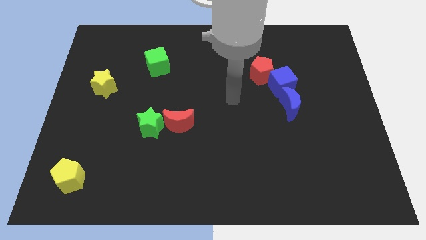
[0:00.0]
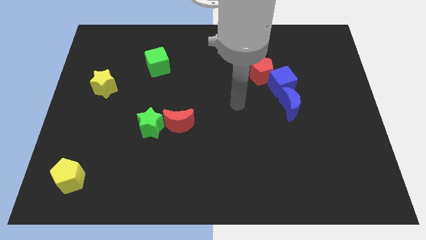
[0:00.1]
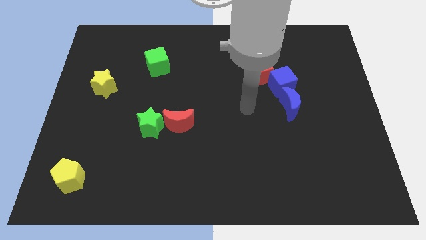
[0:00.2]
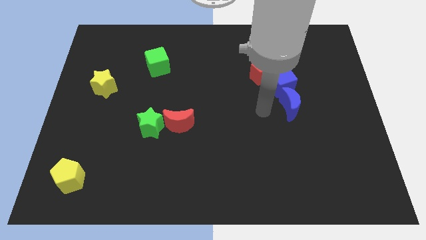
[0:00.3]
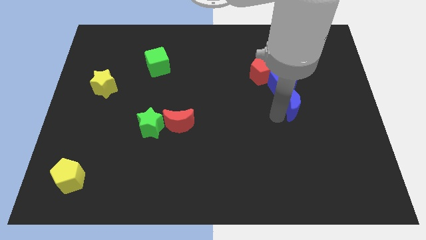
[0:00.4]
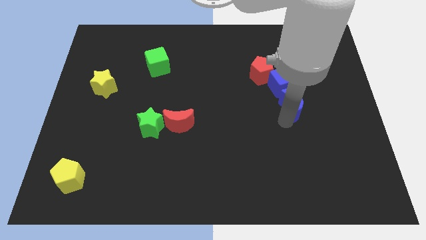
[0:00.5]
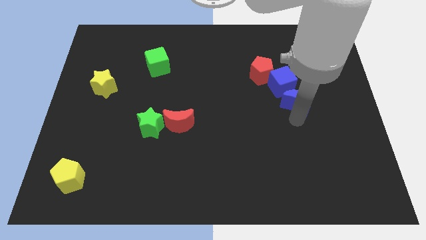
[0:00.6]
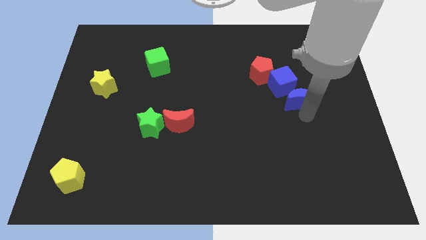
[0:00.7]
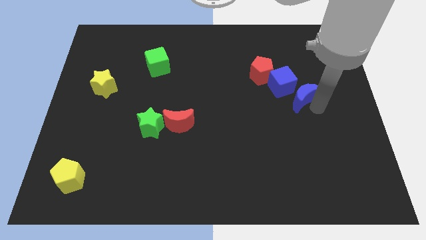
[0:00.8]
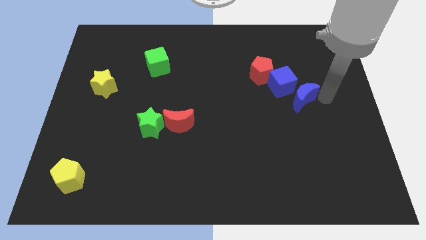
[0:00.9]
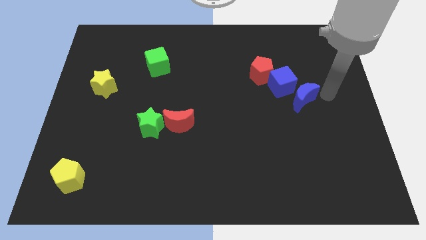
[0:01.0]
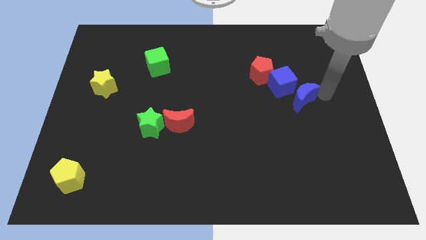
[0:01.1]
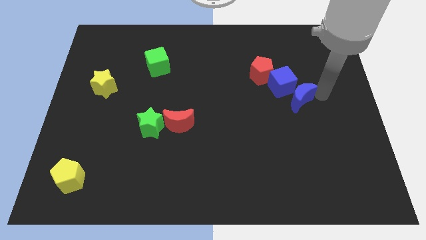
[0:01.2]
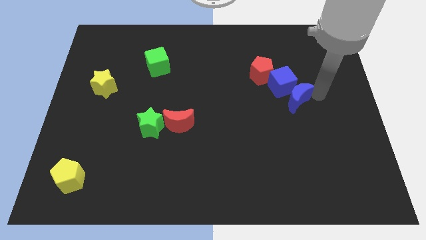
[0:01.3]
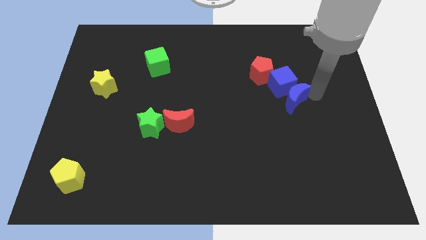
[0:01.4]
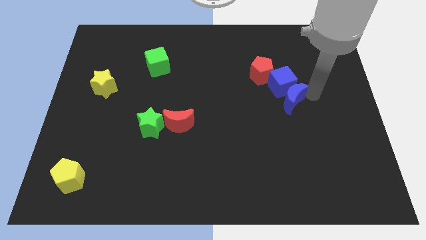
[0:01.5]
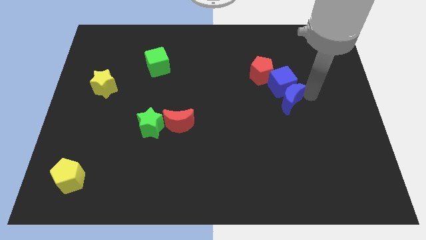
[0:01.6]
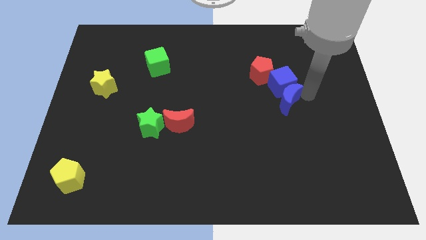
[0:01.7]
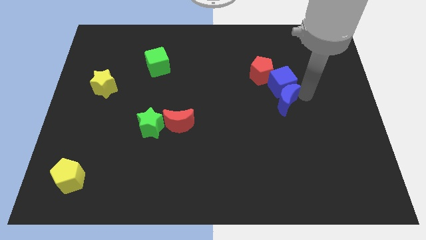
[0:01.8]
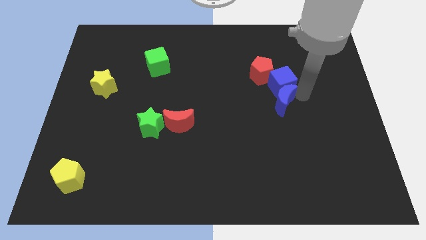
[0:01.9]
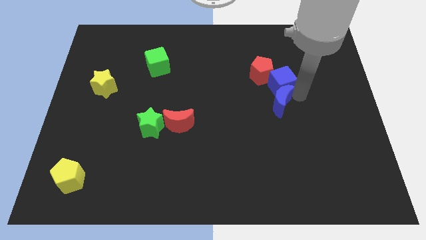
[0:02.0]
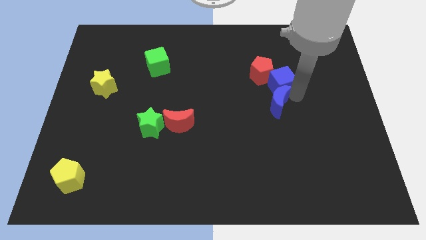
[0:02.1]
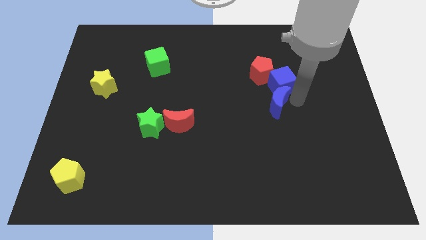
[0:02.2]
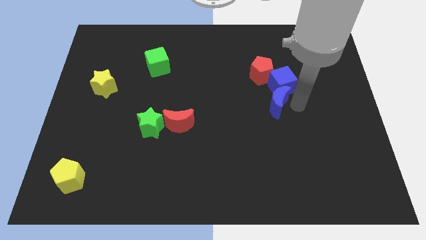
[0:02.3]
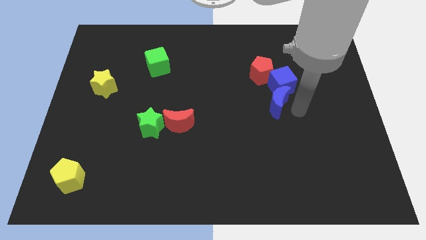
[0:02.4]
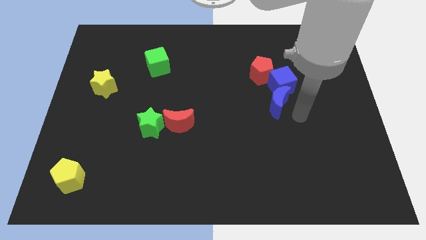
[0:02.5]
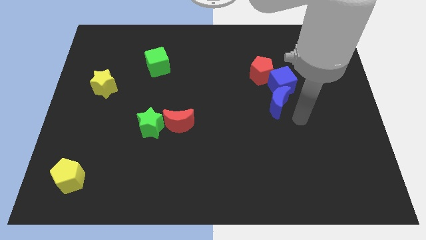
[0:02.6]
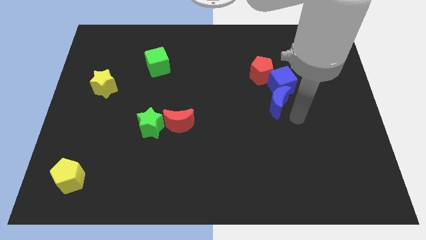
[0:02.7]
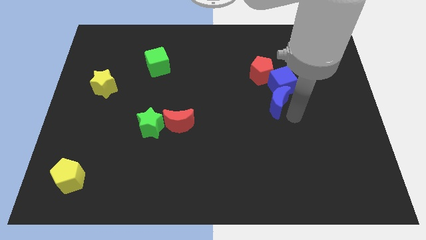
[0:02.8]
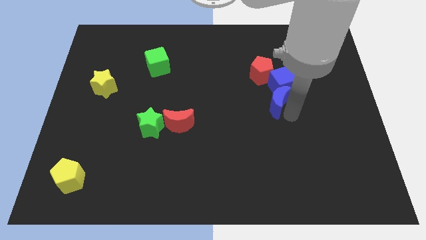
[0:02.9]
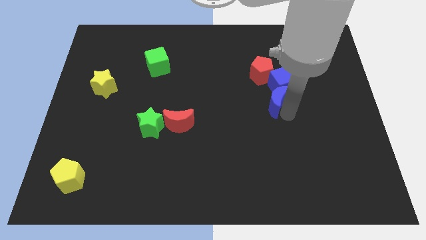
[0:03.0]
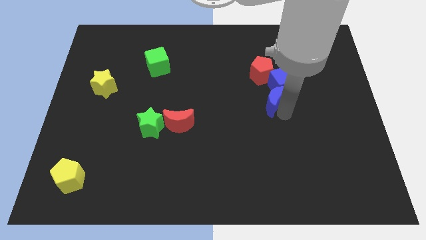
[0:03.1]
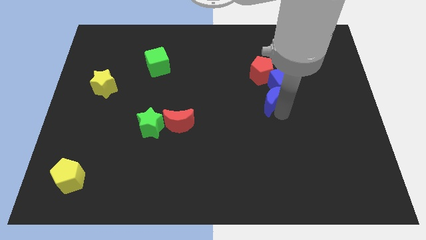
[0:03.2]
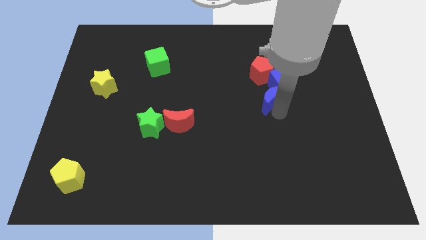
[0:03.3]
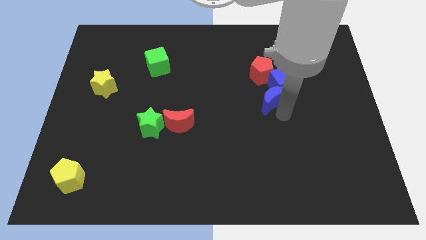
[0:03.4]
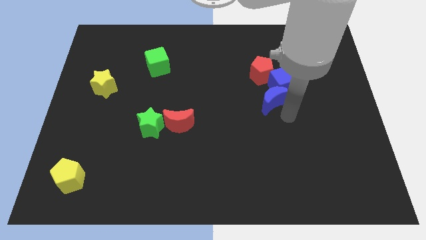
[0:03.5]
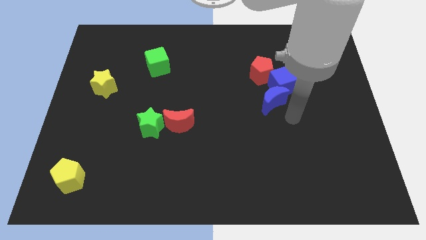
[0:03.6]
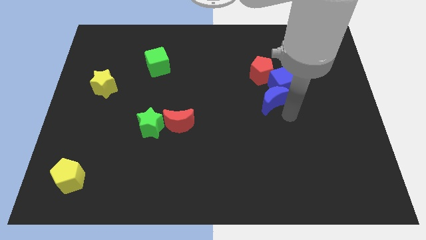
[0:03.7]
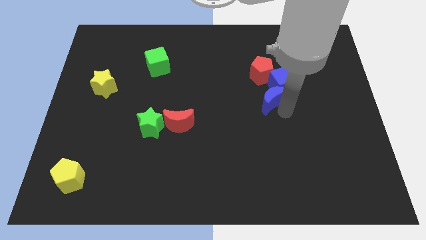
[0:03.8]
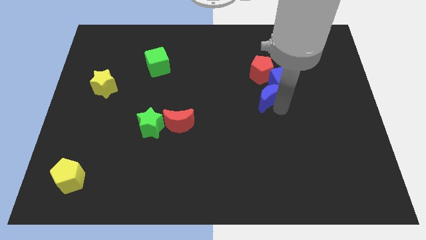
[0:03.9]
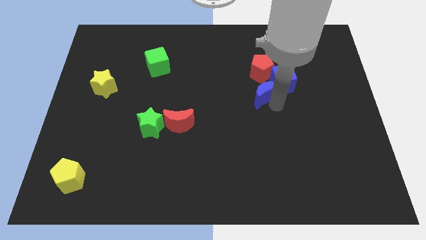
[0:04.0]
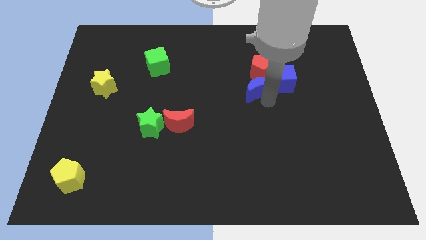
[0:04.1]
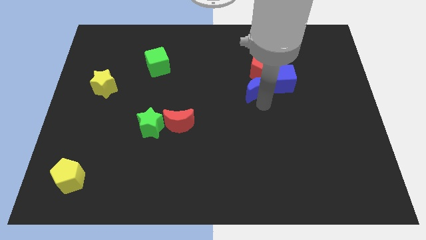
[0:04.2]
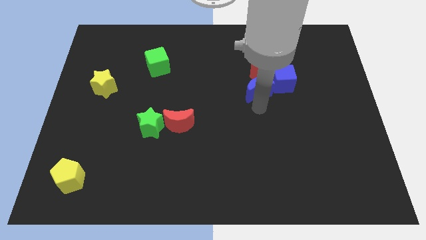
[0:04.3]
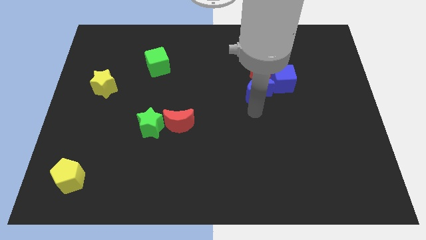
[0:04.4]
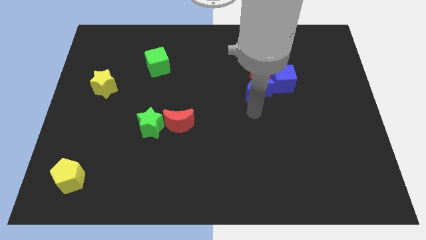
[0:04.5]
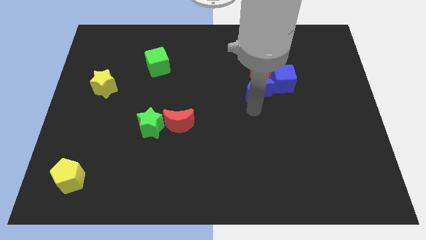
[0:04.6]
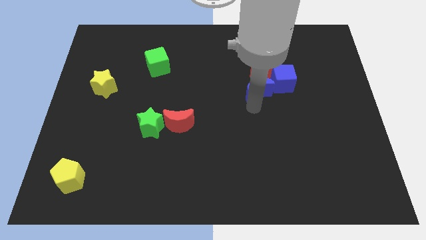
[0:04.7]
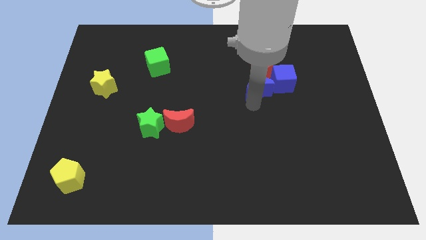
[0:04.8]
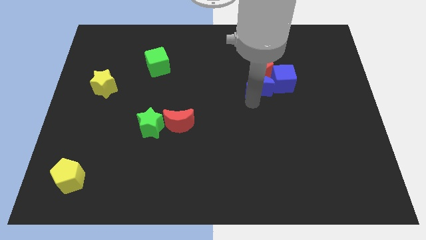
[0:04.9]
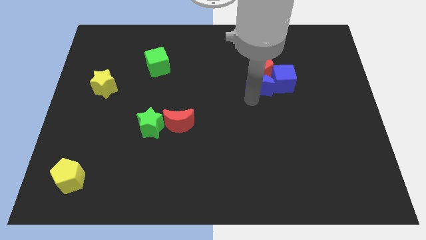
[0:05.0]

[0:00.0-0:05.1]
slide the blue moon to the red pentagon

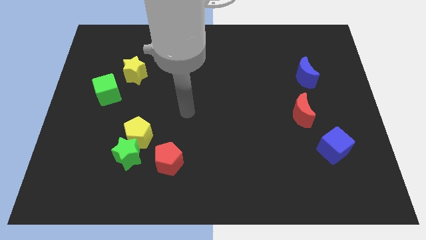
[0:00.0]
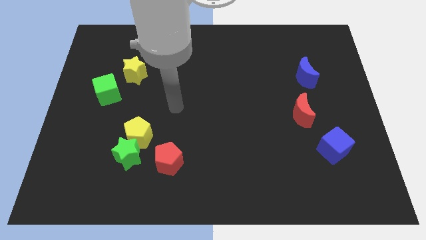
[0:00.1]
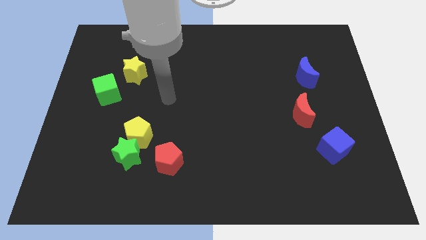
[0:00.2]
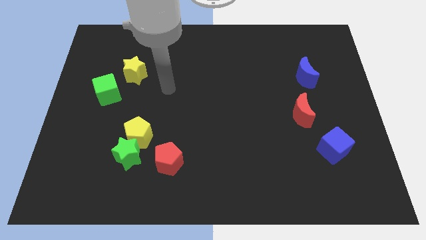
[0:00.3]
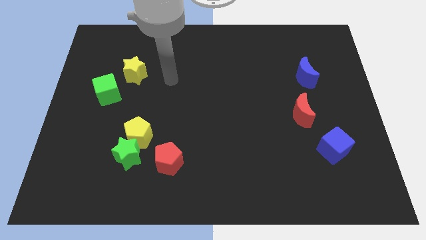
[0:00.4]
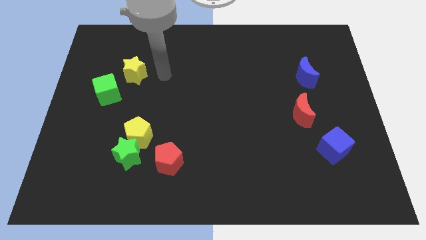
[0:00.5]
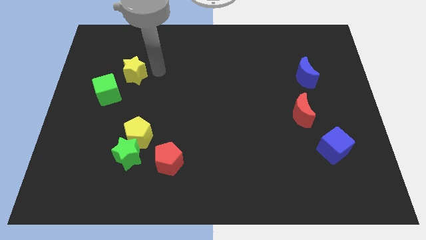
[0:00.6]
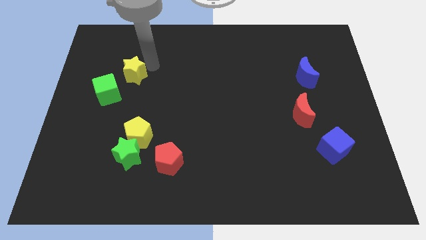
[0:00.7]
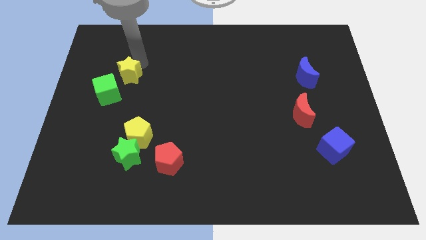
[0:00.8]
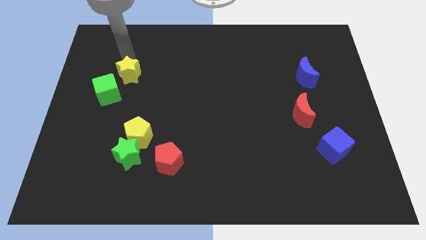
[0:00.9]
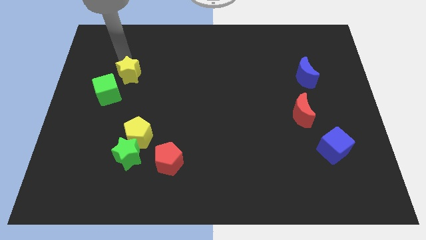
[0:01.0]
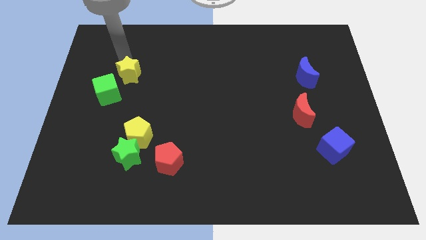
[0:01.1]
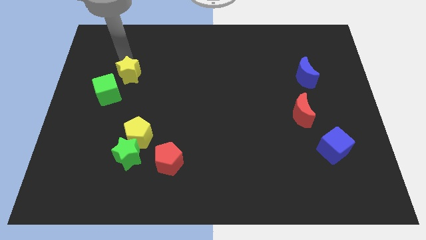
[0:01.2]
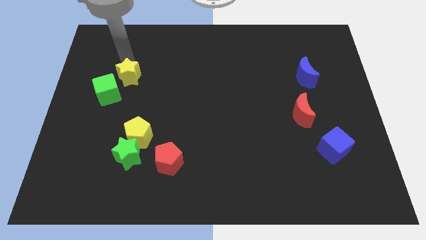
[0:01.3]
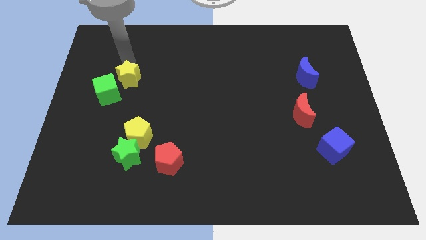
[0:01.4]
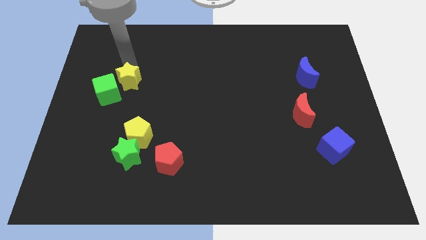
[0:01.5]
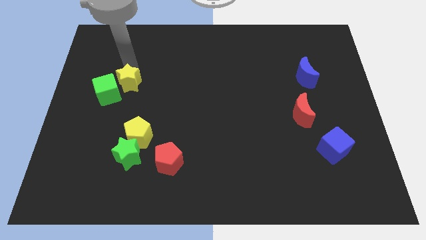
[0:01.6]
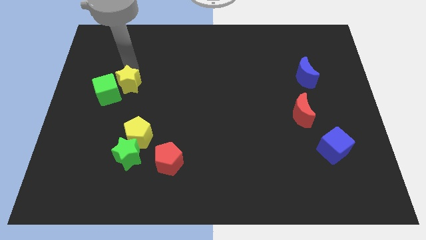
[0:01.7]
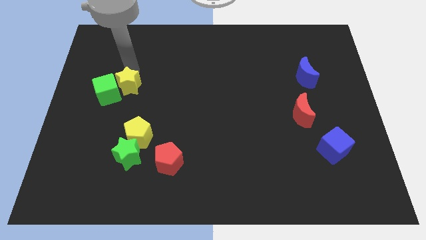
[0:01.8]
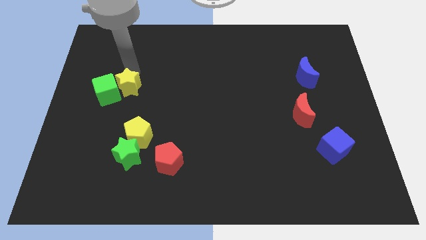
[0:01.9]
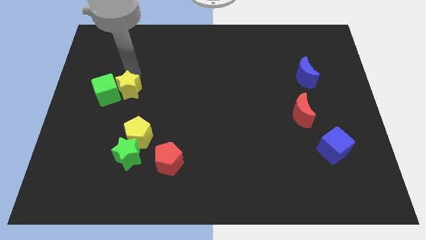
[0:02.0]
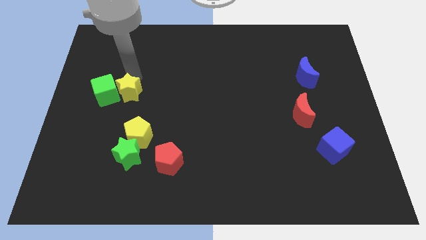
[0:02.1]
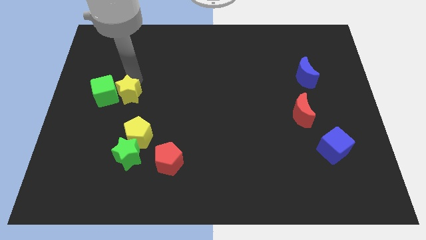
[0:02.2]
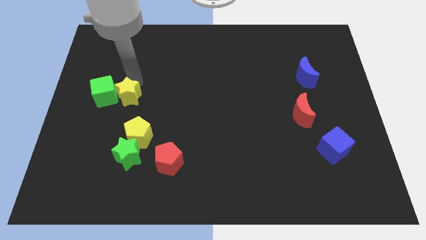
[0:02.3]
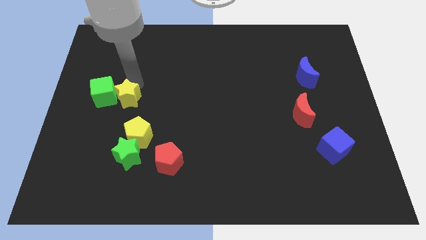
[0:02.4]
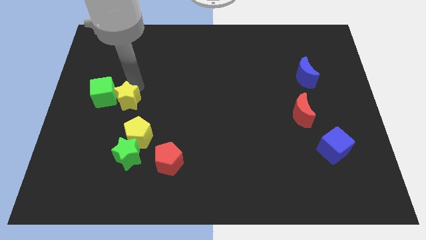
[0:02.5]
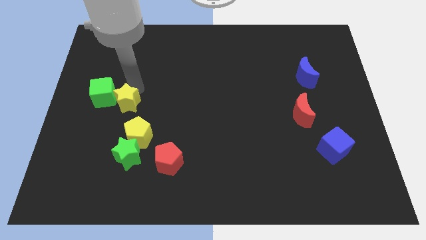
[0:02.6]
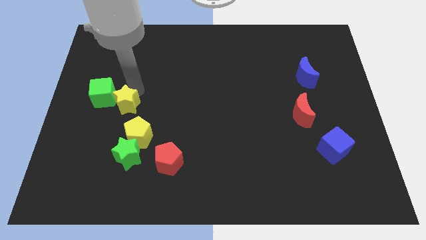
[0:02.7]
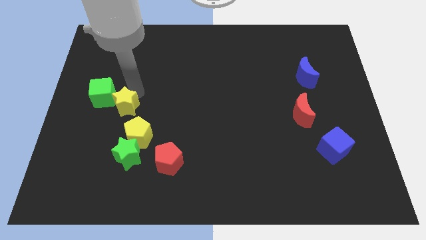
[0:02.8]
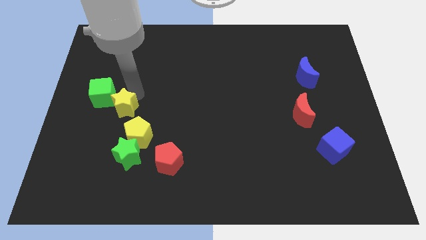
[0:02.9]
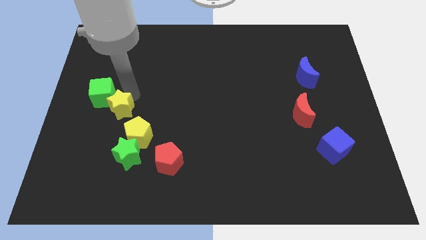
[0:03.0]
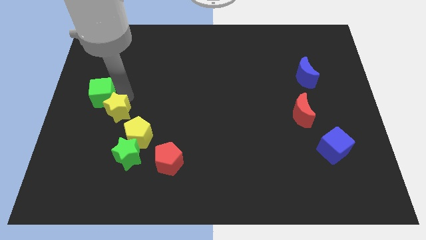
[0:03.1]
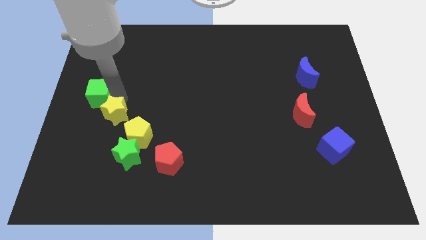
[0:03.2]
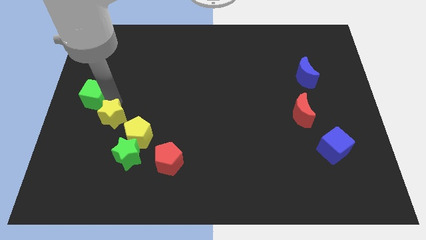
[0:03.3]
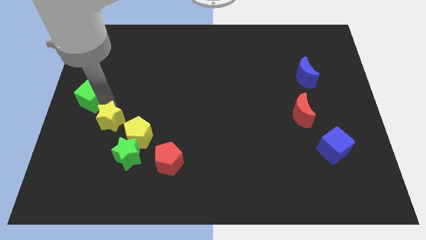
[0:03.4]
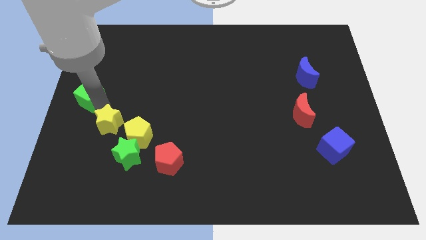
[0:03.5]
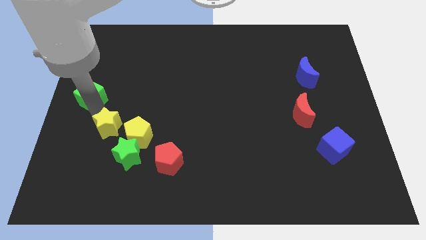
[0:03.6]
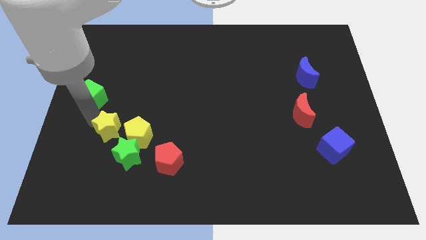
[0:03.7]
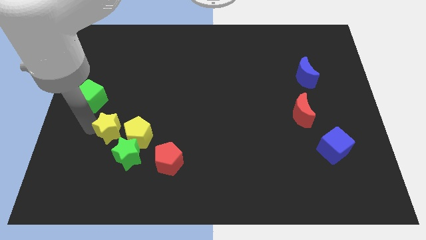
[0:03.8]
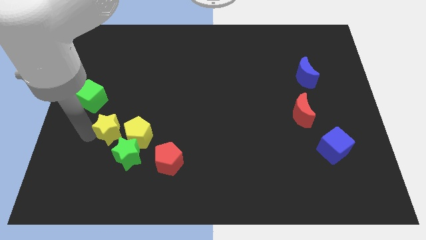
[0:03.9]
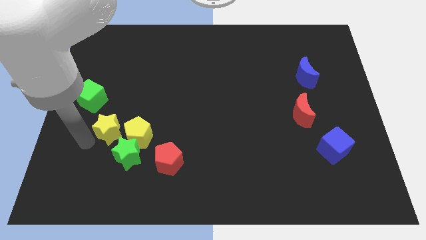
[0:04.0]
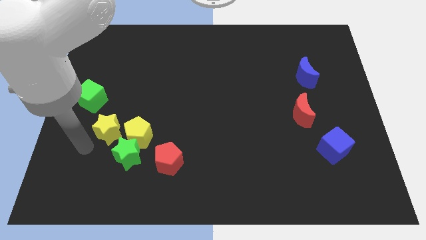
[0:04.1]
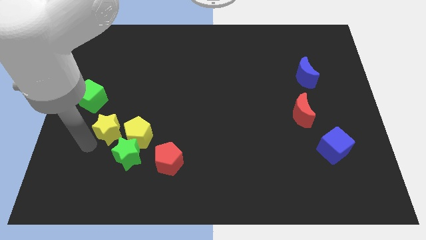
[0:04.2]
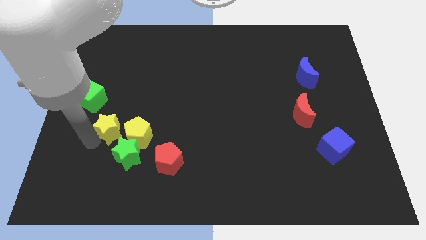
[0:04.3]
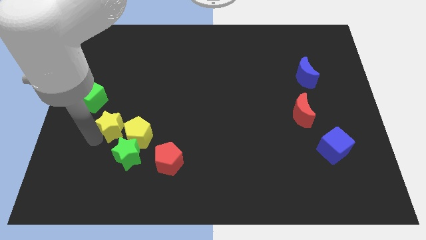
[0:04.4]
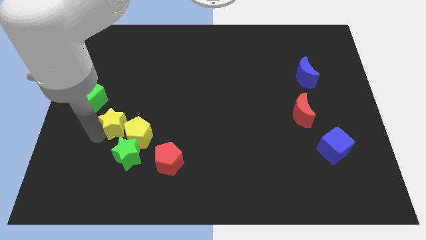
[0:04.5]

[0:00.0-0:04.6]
slide the yellow star close to the yellow pentagon
